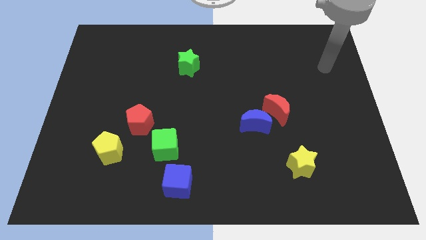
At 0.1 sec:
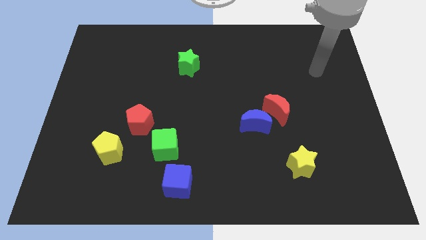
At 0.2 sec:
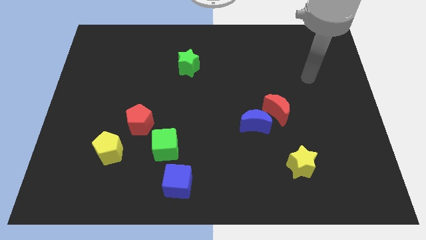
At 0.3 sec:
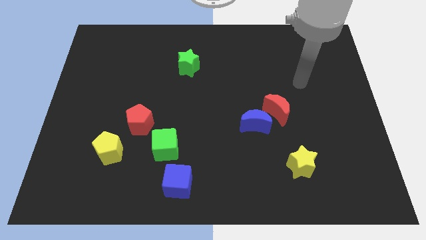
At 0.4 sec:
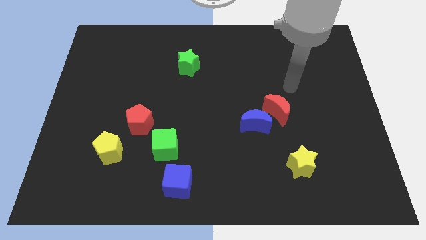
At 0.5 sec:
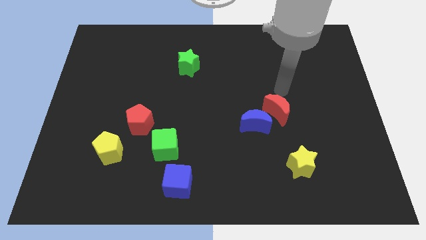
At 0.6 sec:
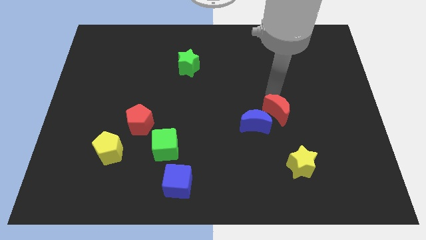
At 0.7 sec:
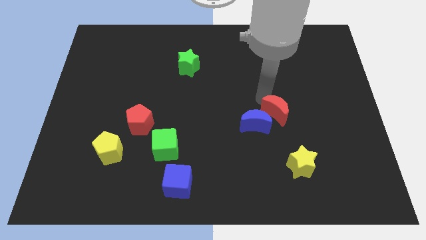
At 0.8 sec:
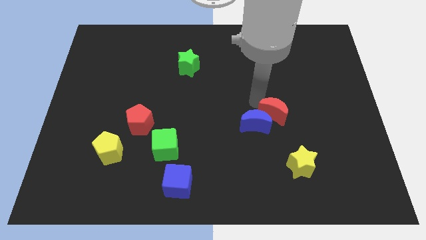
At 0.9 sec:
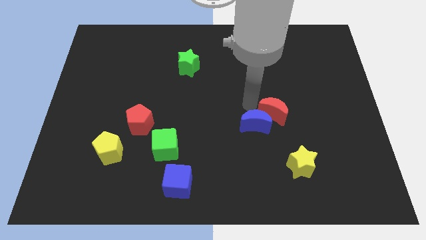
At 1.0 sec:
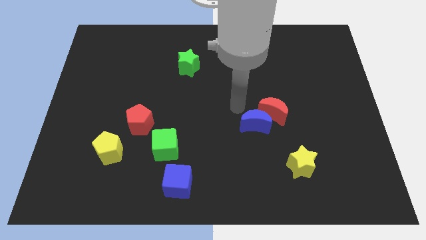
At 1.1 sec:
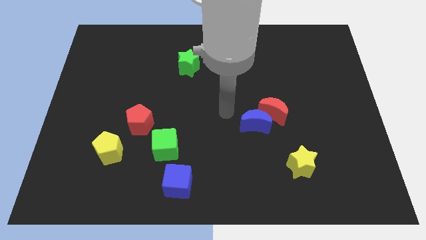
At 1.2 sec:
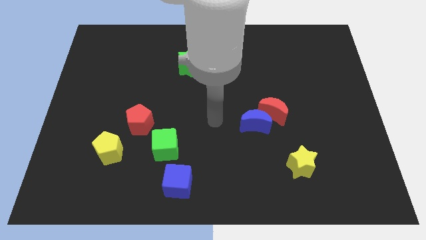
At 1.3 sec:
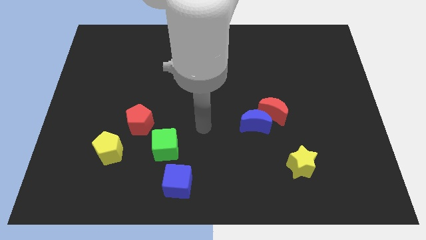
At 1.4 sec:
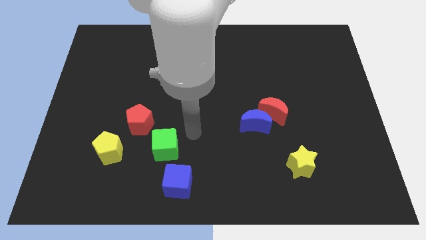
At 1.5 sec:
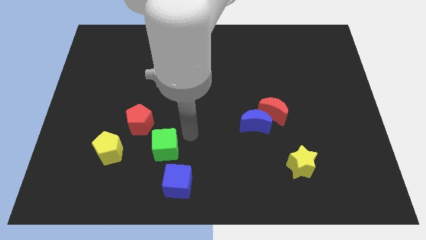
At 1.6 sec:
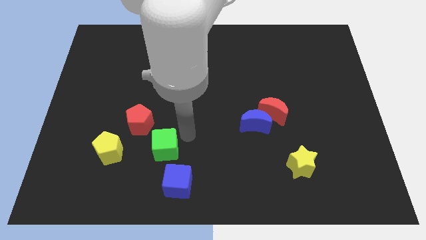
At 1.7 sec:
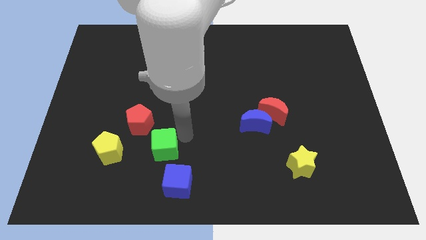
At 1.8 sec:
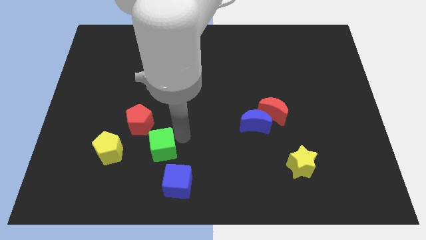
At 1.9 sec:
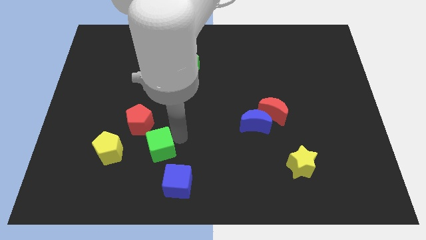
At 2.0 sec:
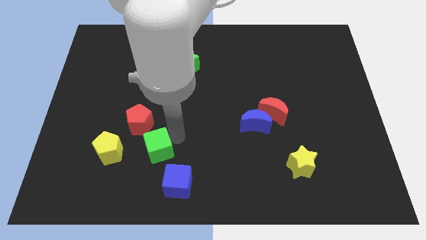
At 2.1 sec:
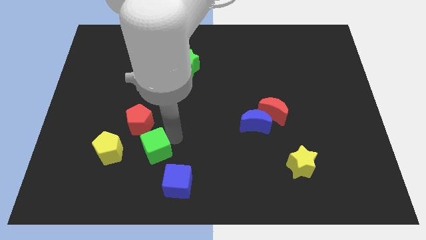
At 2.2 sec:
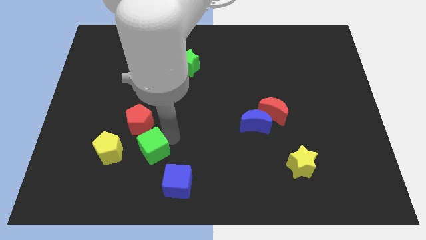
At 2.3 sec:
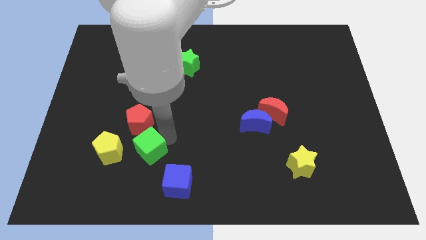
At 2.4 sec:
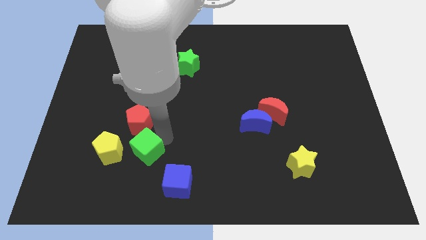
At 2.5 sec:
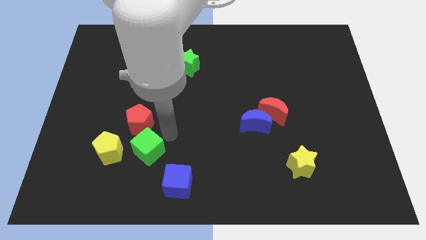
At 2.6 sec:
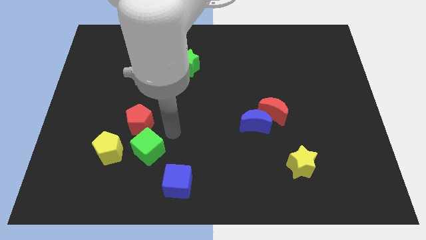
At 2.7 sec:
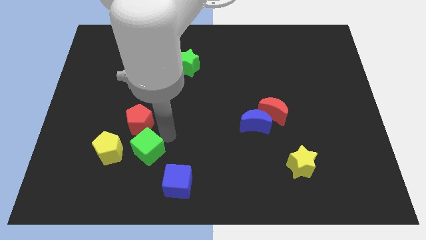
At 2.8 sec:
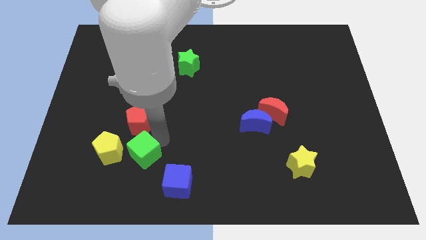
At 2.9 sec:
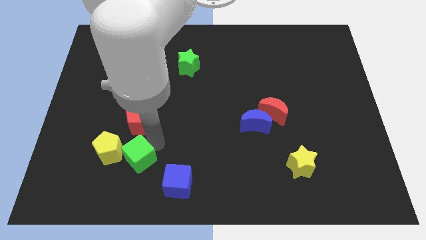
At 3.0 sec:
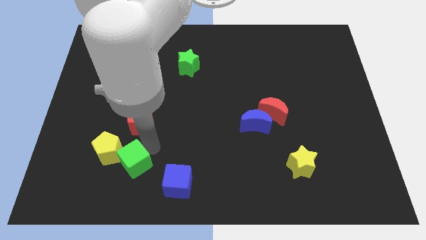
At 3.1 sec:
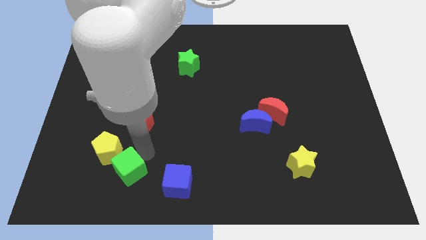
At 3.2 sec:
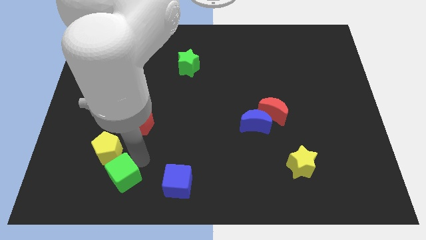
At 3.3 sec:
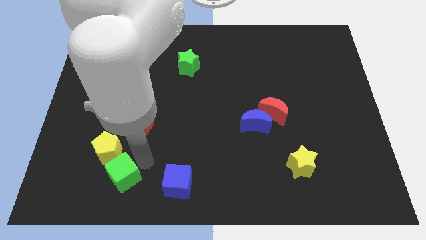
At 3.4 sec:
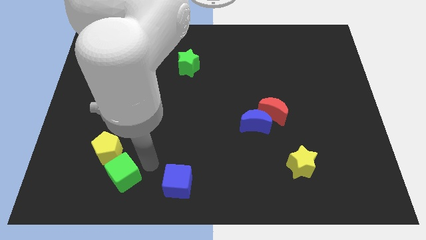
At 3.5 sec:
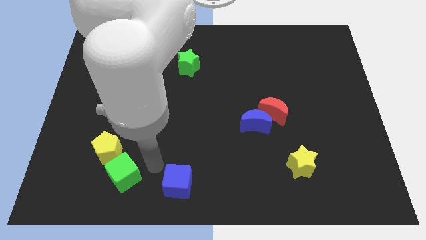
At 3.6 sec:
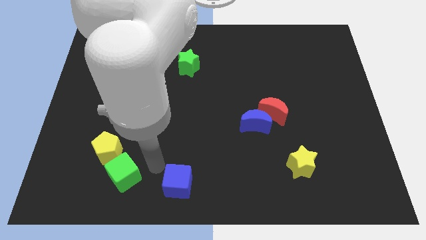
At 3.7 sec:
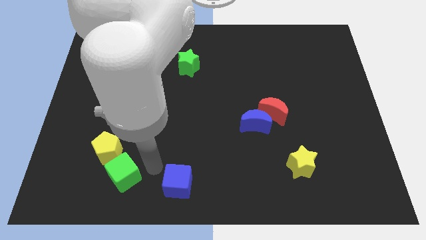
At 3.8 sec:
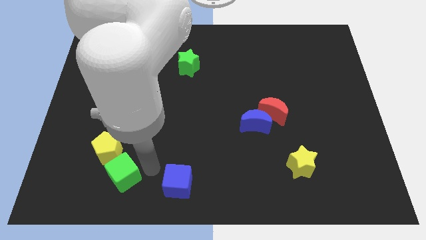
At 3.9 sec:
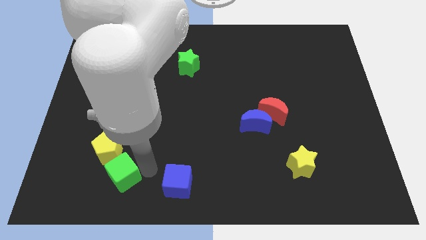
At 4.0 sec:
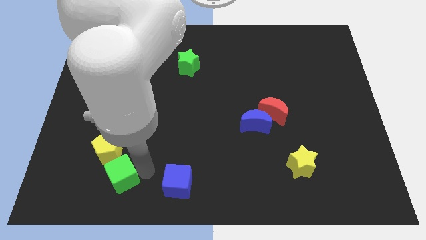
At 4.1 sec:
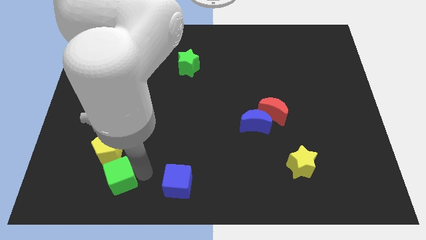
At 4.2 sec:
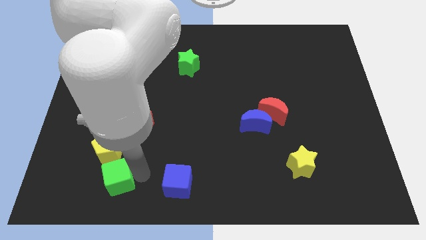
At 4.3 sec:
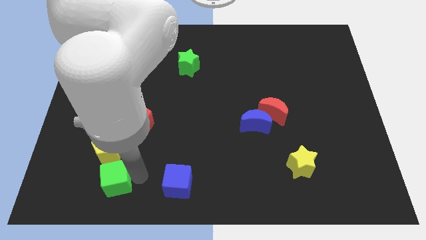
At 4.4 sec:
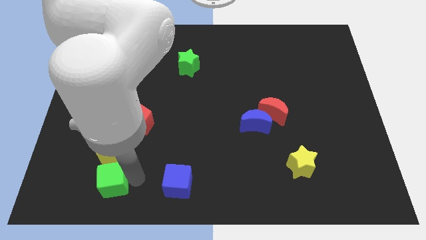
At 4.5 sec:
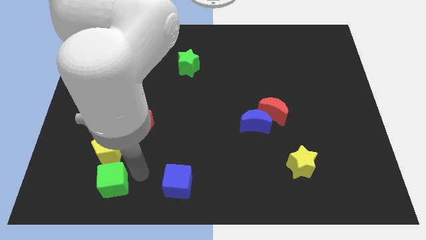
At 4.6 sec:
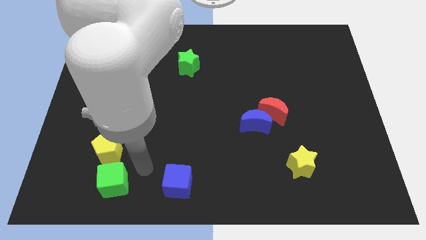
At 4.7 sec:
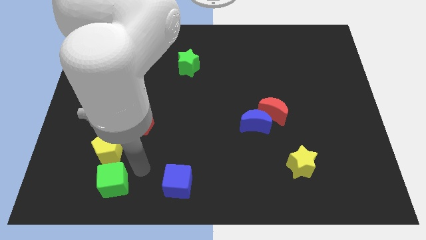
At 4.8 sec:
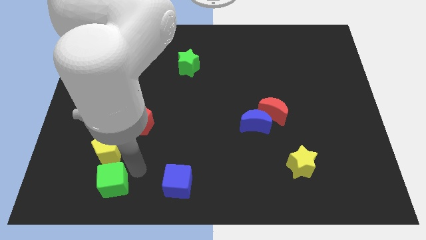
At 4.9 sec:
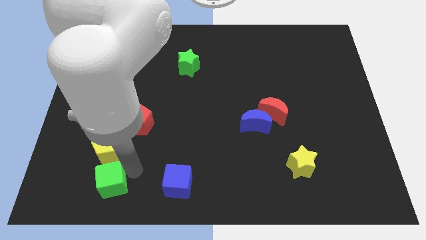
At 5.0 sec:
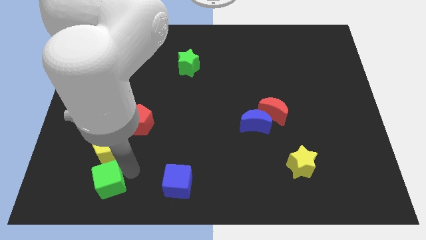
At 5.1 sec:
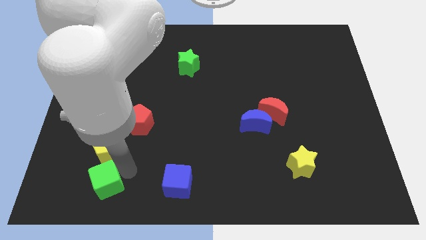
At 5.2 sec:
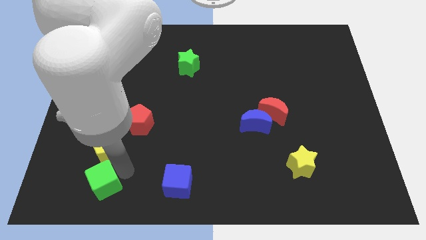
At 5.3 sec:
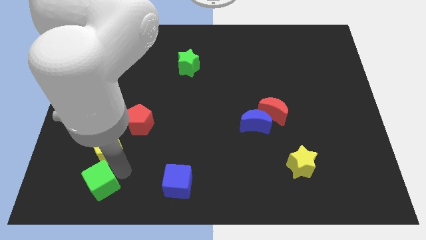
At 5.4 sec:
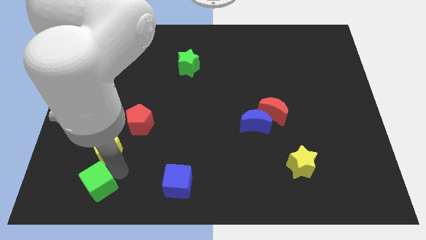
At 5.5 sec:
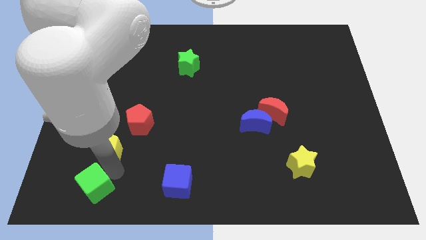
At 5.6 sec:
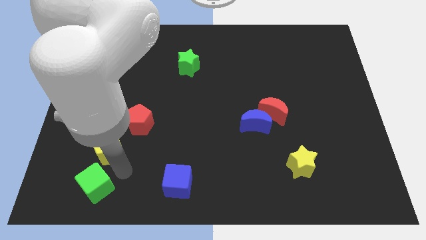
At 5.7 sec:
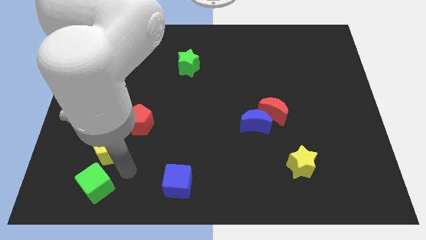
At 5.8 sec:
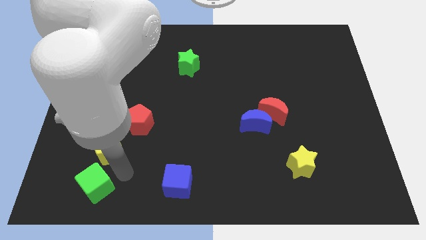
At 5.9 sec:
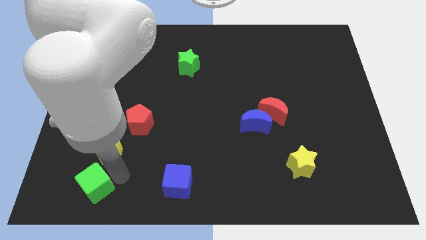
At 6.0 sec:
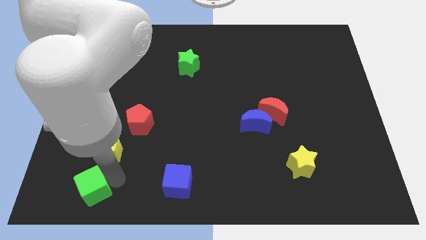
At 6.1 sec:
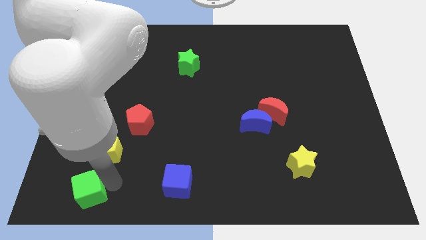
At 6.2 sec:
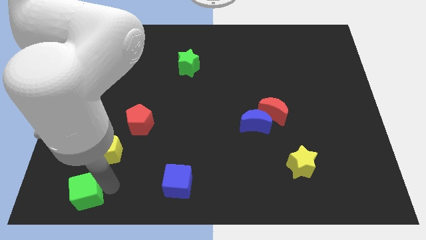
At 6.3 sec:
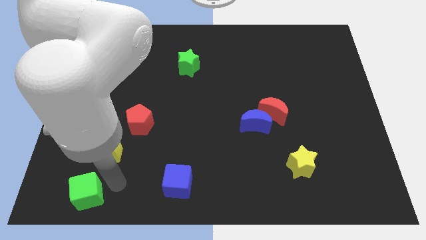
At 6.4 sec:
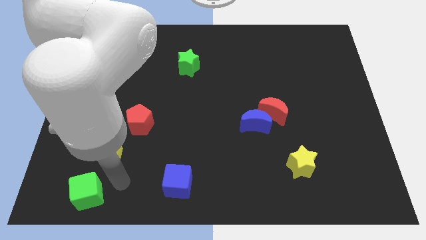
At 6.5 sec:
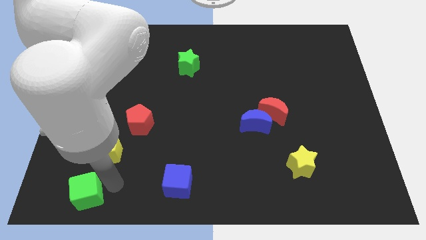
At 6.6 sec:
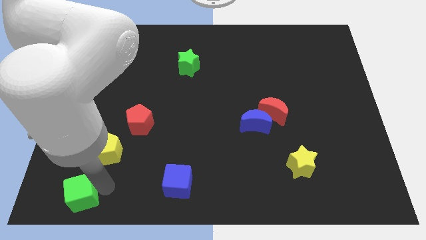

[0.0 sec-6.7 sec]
put the green cube to the bottom left
